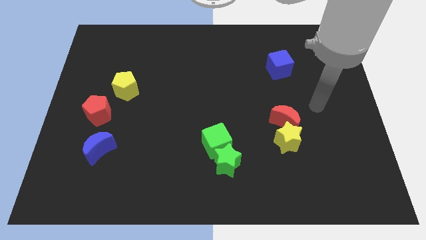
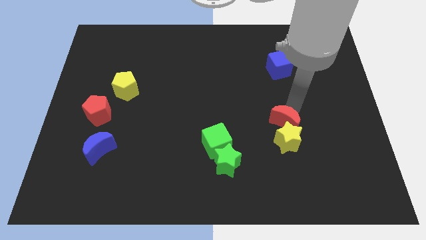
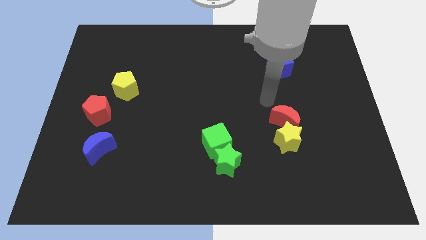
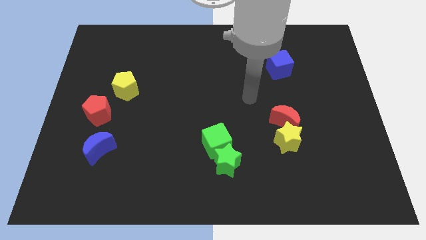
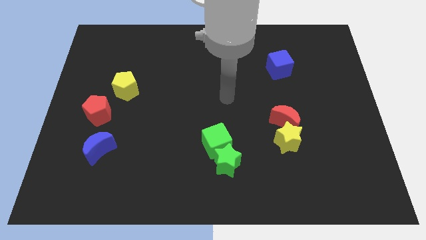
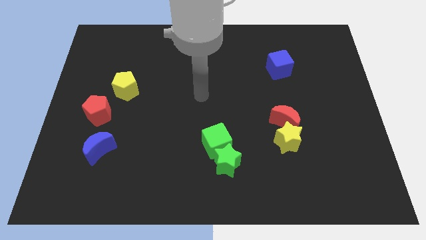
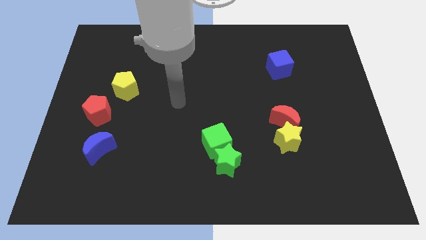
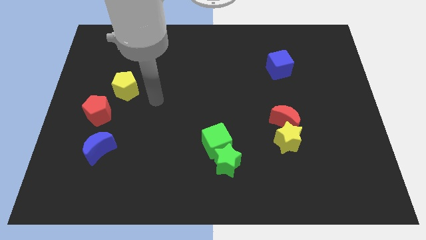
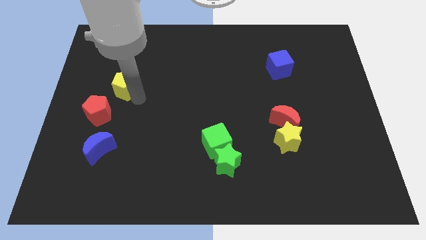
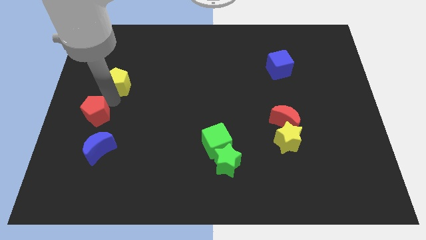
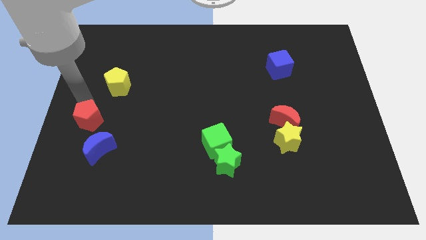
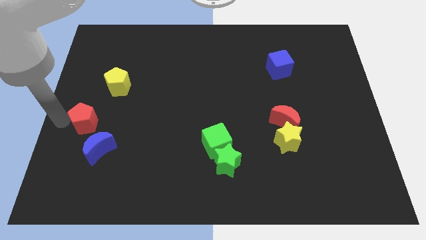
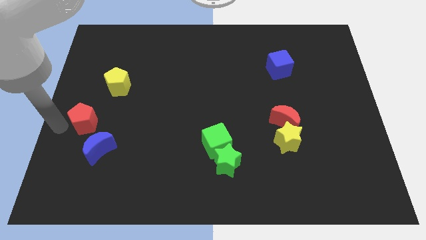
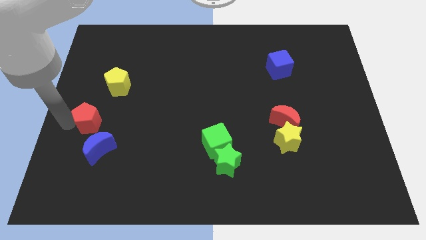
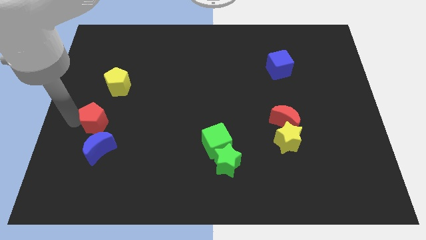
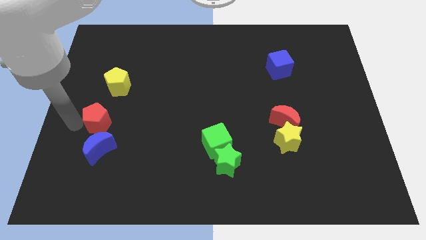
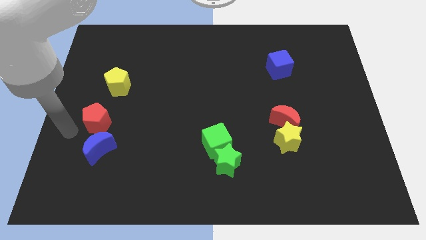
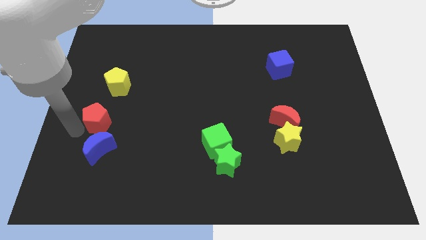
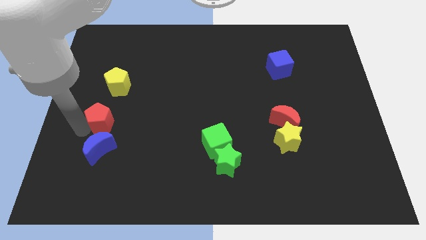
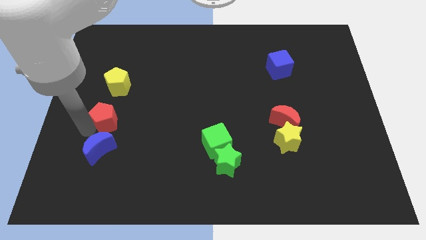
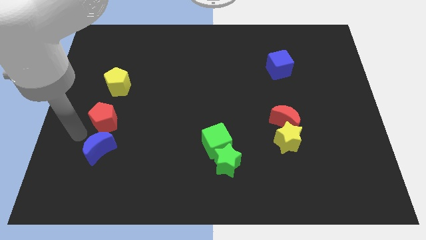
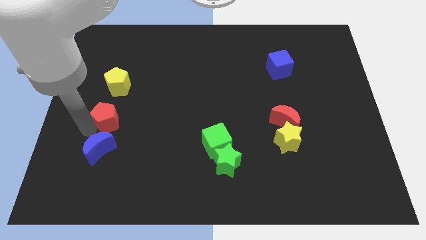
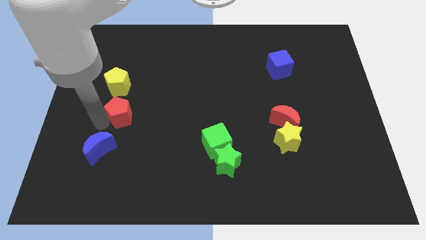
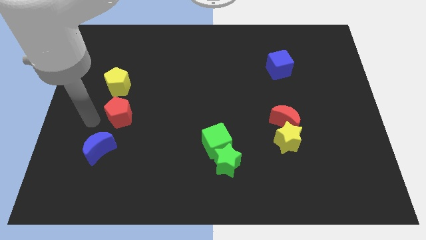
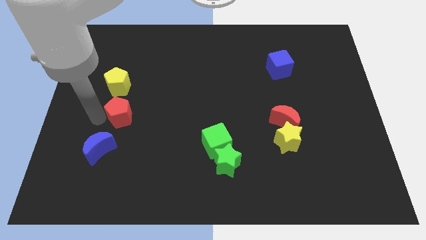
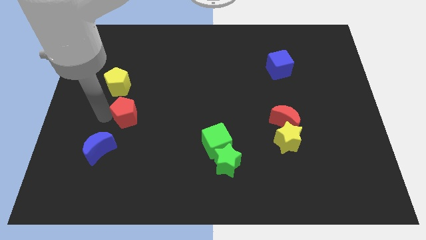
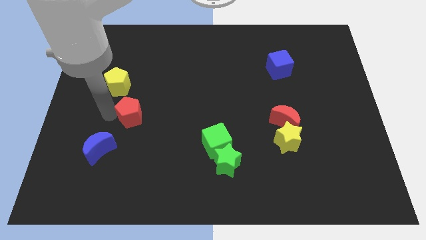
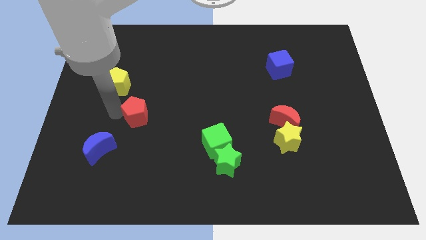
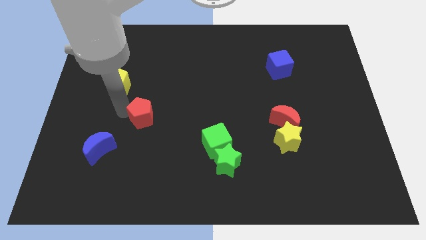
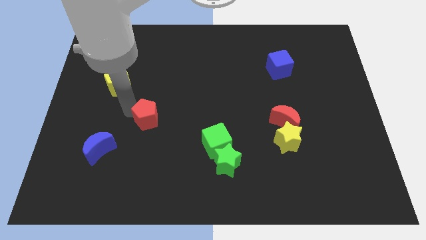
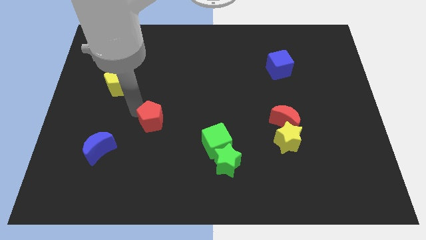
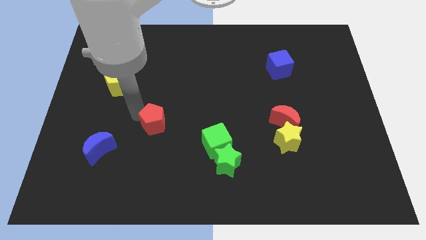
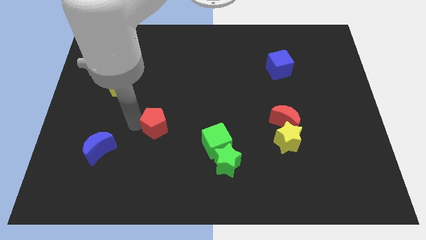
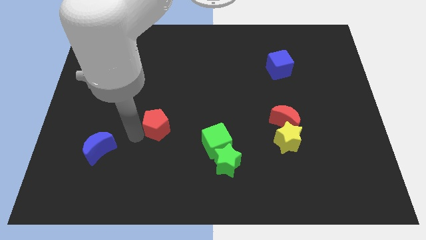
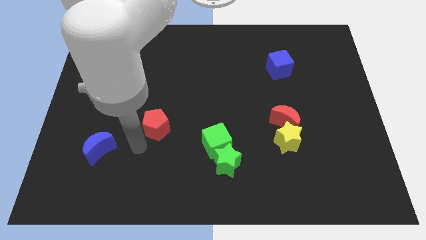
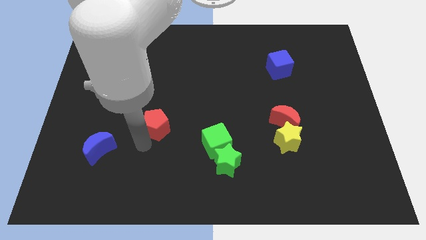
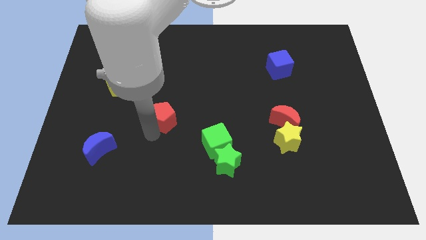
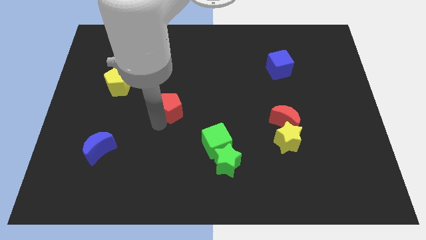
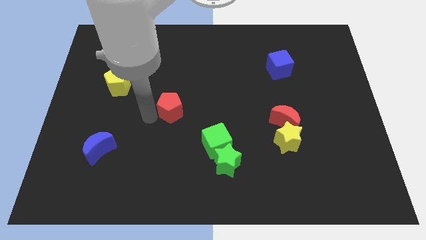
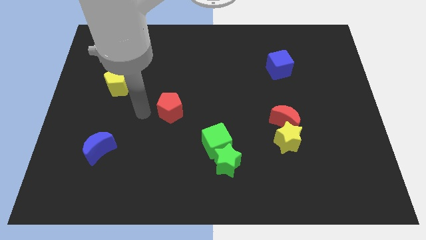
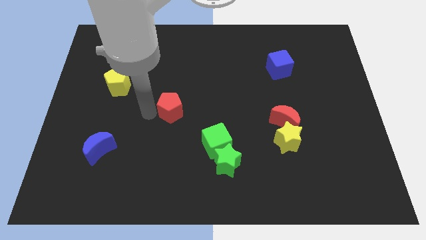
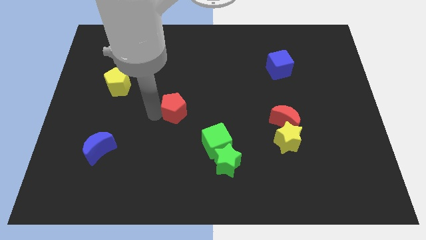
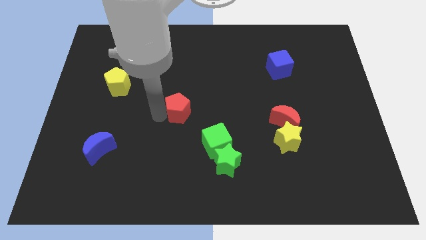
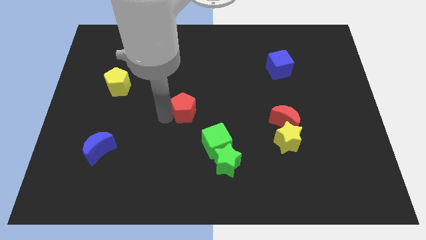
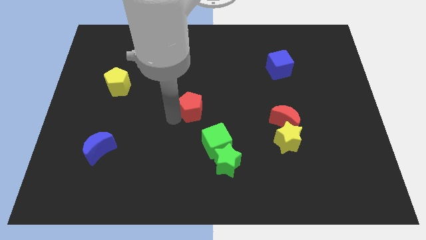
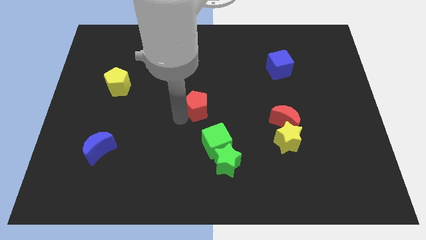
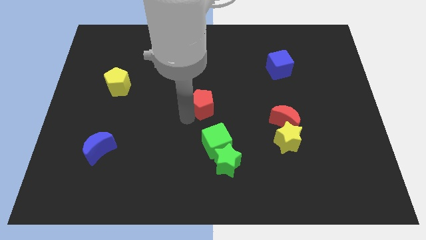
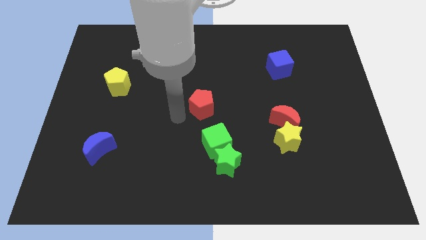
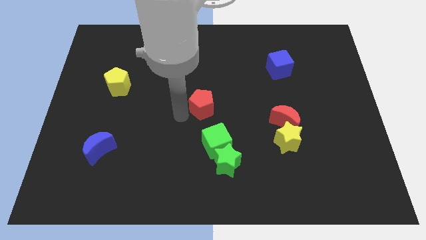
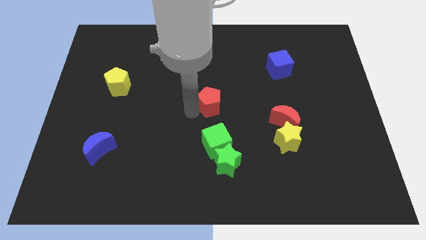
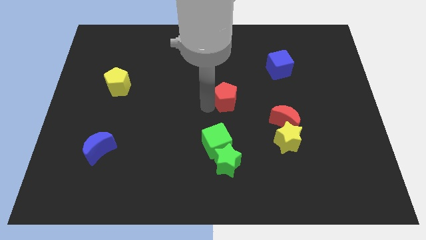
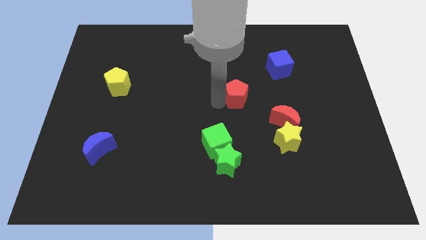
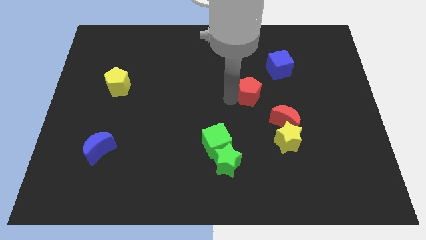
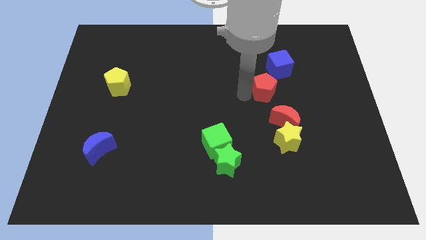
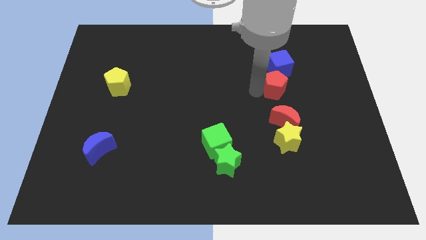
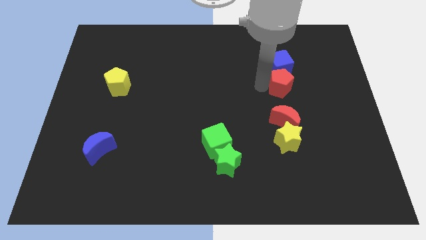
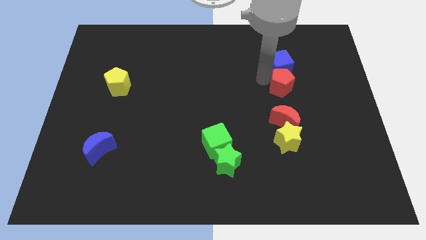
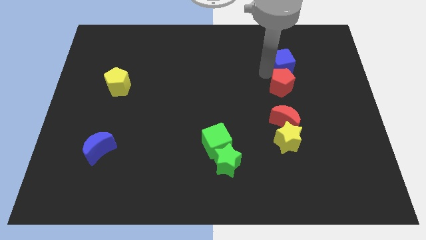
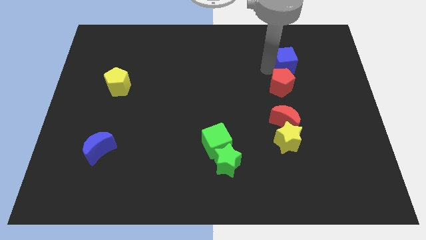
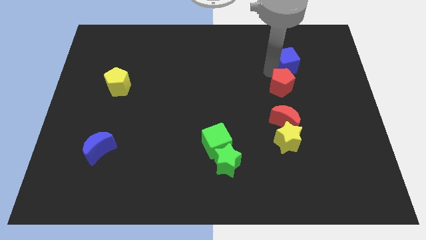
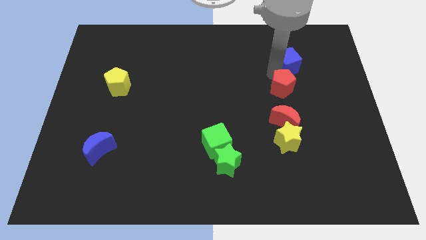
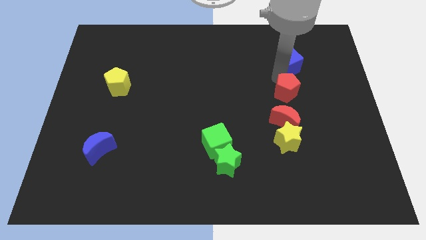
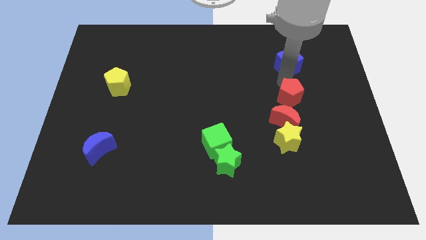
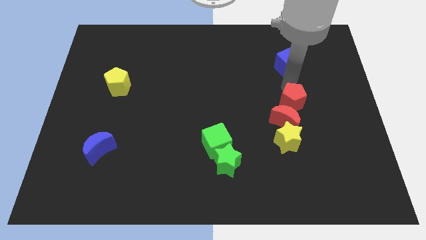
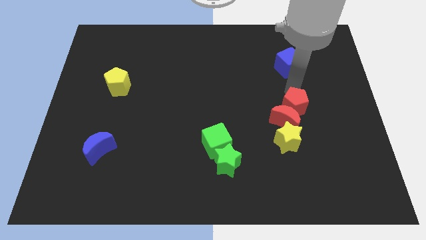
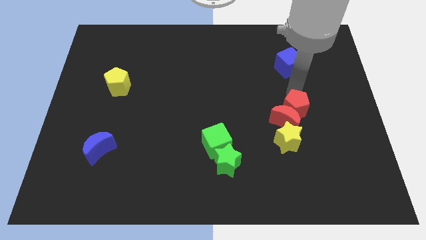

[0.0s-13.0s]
put the red pentagon to the top right side of the yellow star

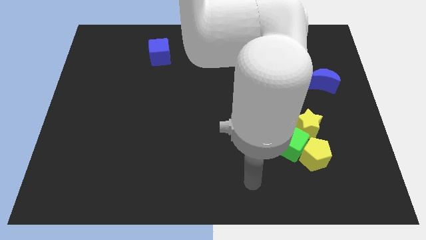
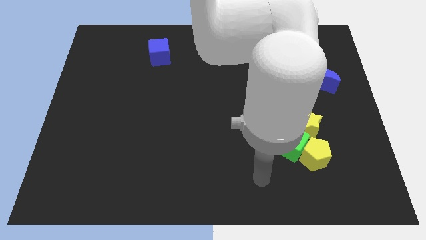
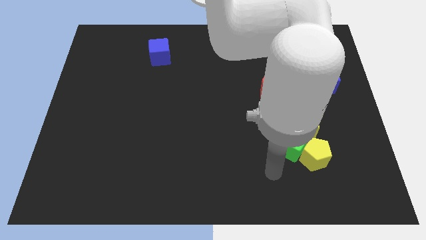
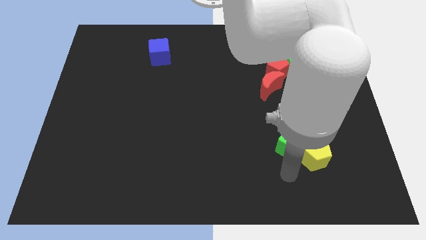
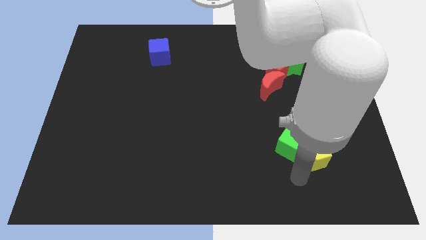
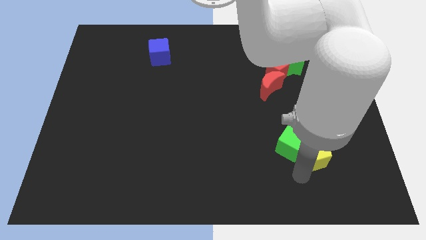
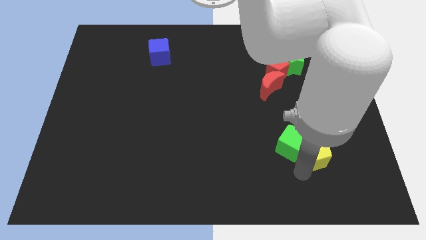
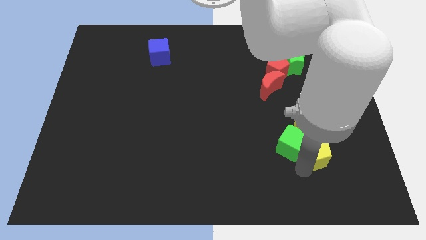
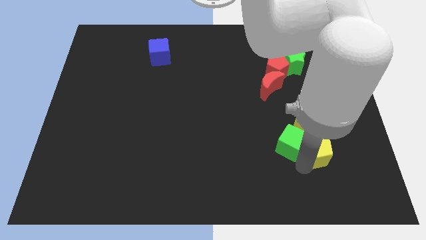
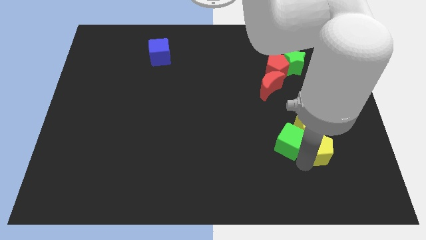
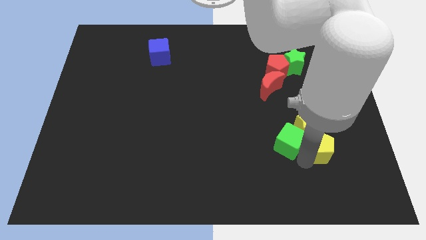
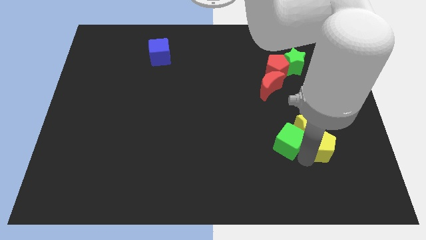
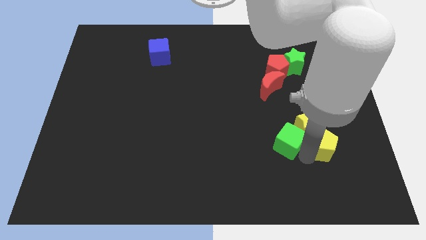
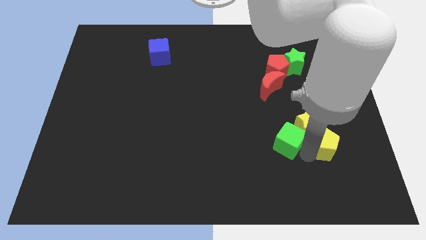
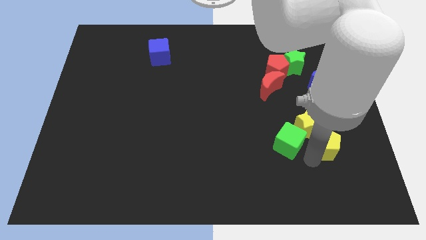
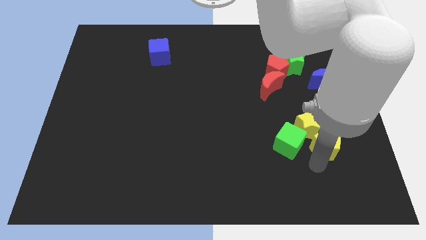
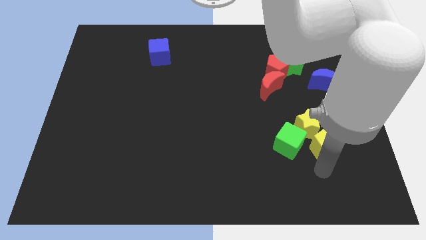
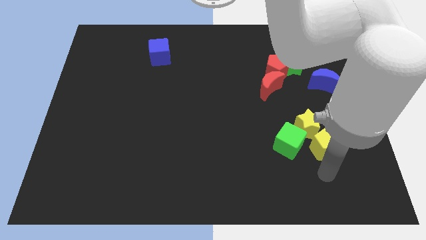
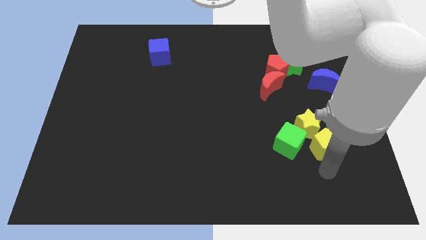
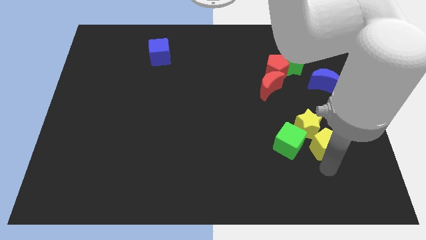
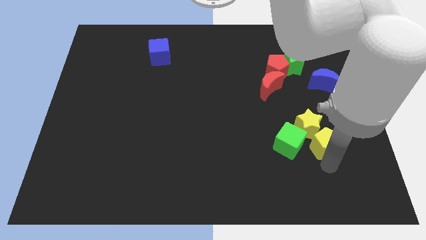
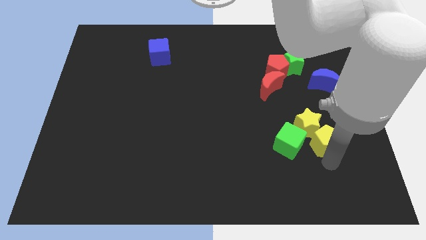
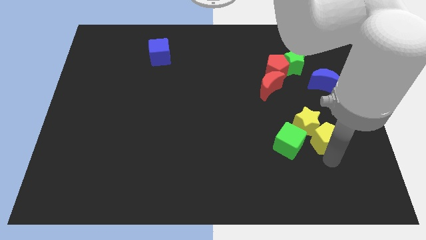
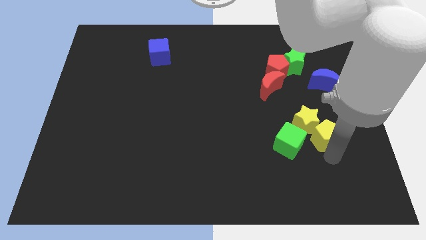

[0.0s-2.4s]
slide the yellow pentagon to the top right side of the green cube
